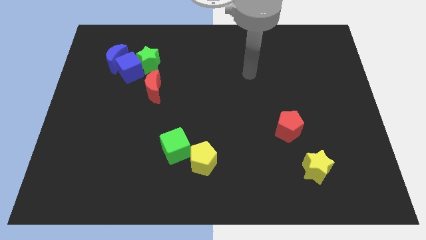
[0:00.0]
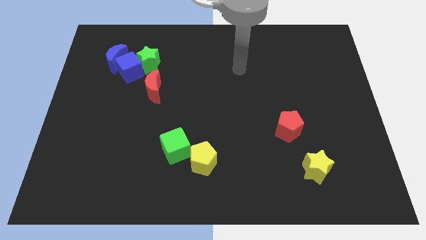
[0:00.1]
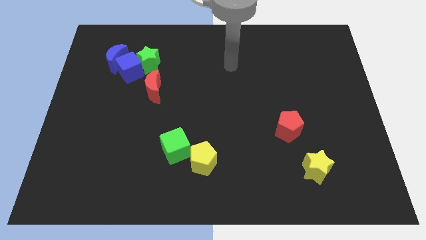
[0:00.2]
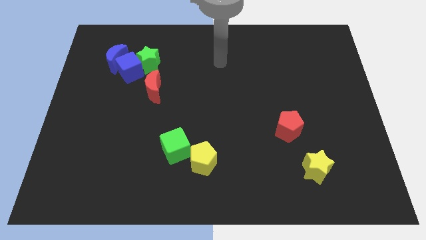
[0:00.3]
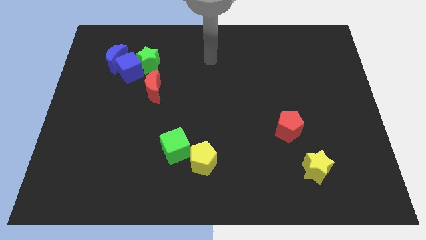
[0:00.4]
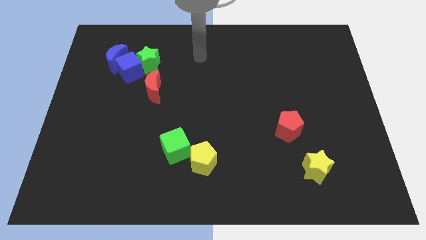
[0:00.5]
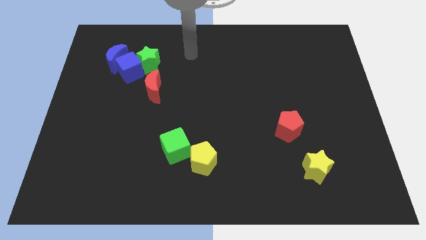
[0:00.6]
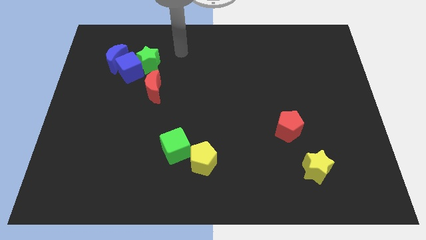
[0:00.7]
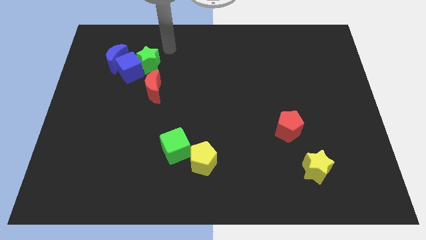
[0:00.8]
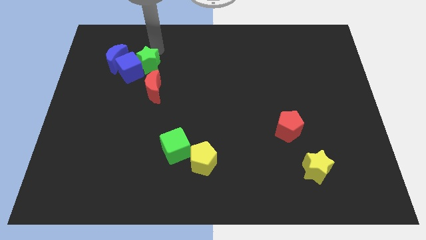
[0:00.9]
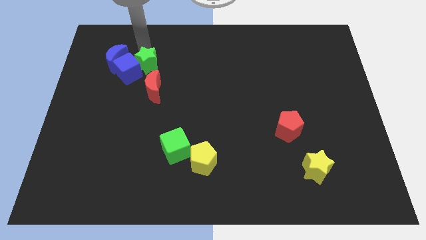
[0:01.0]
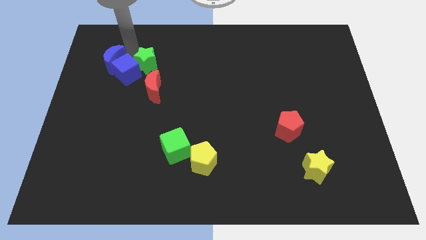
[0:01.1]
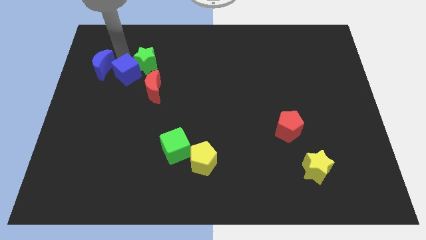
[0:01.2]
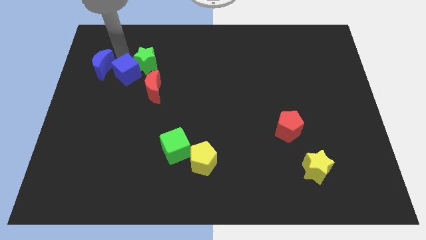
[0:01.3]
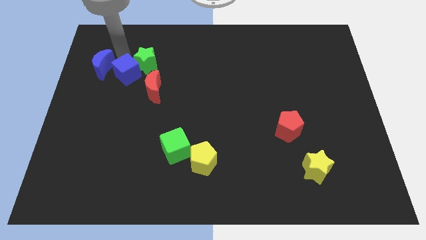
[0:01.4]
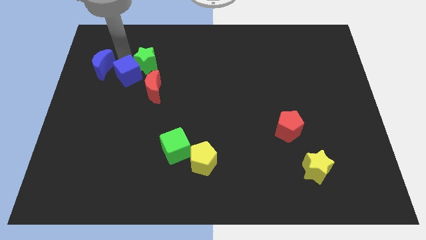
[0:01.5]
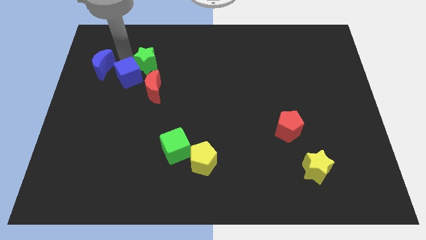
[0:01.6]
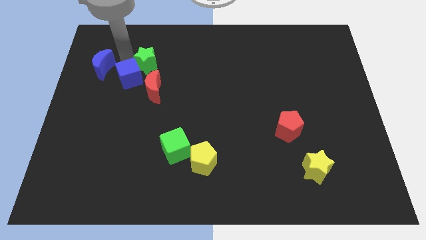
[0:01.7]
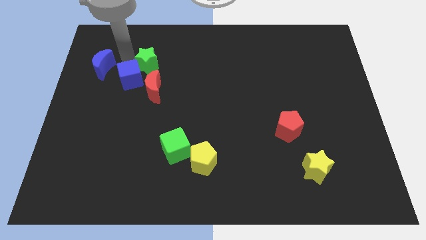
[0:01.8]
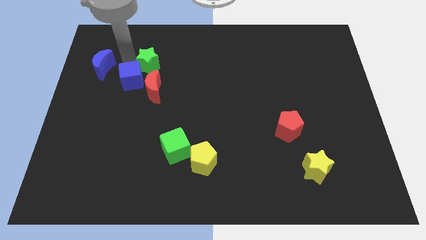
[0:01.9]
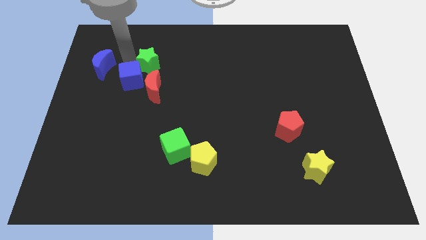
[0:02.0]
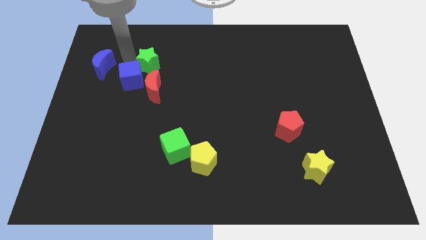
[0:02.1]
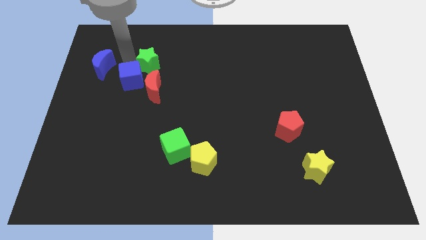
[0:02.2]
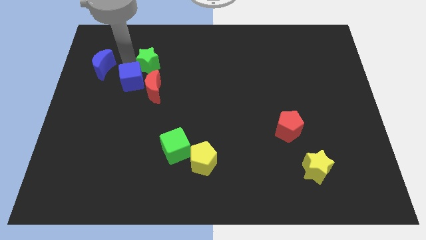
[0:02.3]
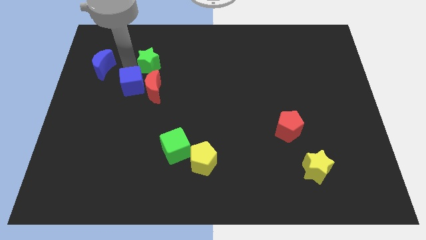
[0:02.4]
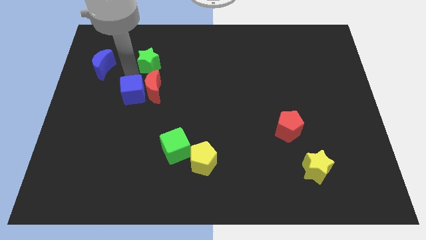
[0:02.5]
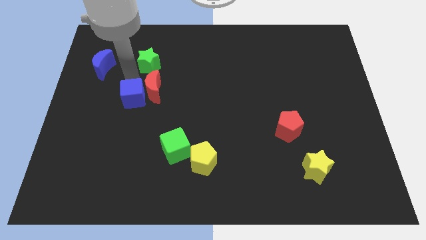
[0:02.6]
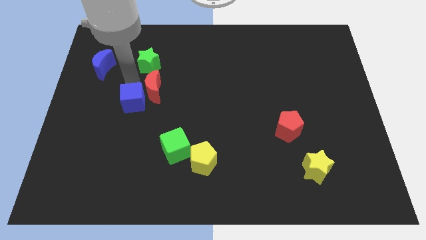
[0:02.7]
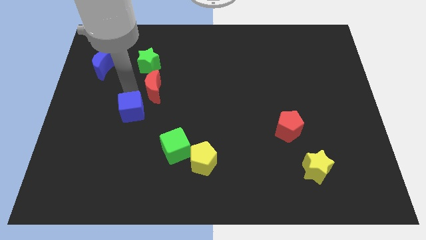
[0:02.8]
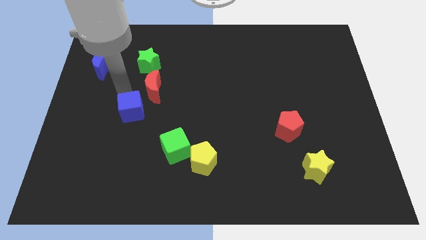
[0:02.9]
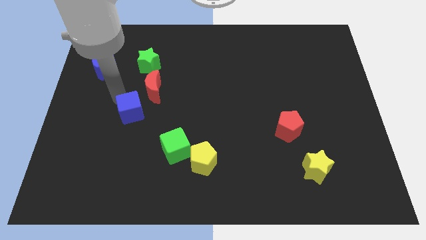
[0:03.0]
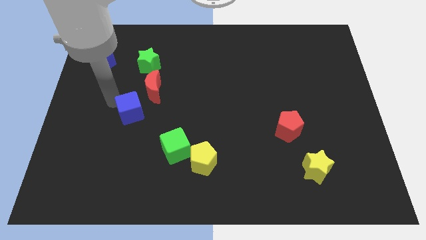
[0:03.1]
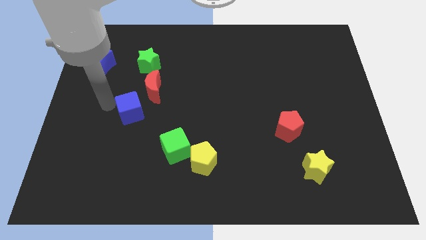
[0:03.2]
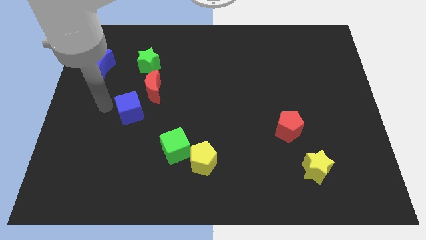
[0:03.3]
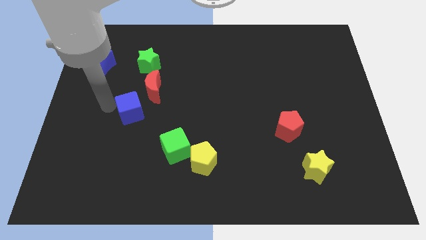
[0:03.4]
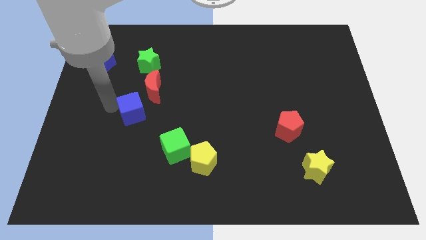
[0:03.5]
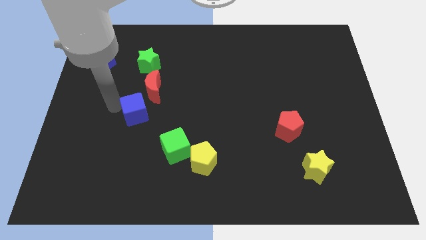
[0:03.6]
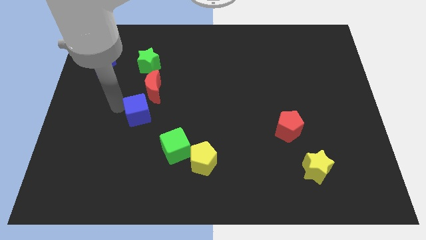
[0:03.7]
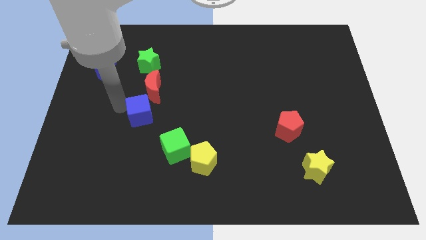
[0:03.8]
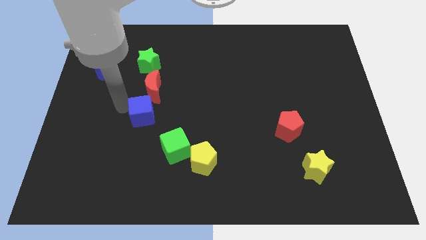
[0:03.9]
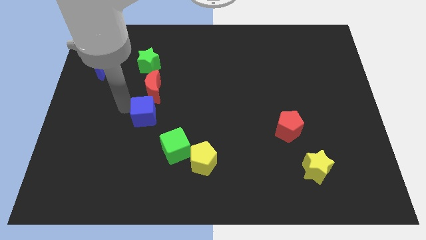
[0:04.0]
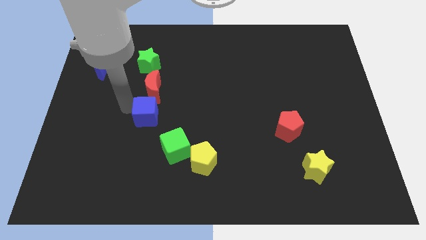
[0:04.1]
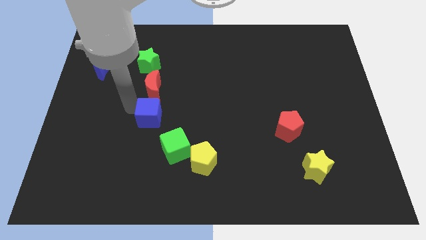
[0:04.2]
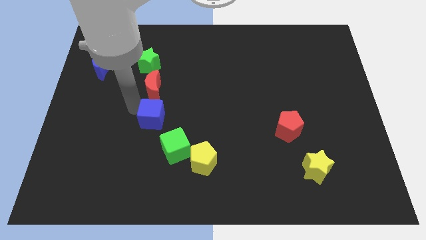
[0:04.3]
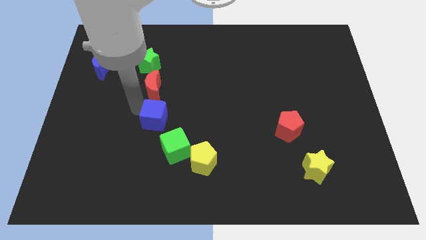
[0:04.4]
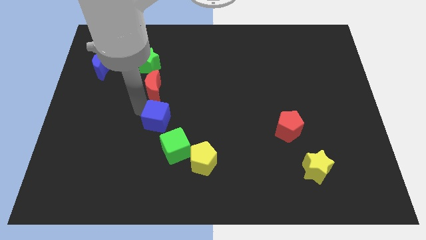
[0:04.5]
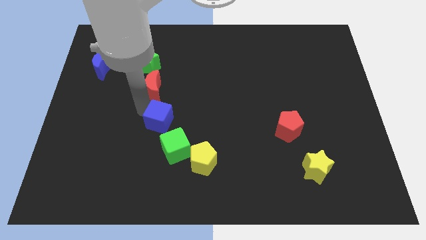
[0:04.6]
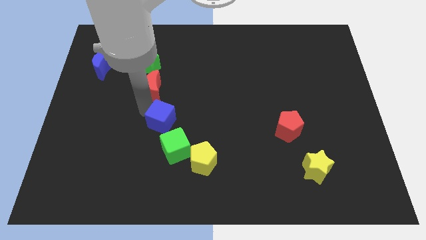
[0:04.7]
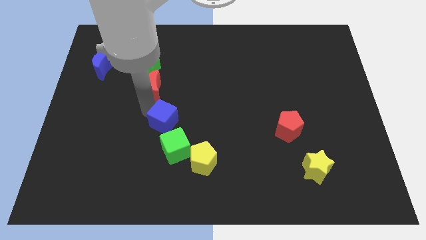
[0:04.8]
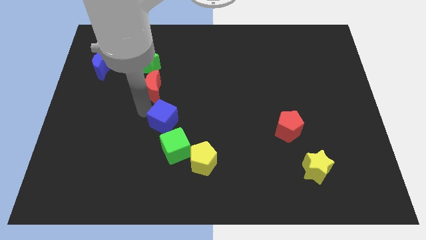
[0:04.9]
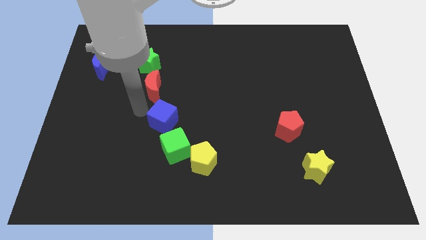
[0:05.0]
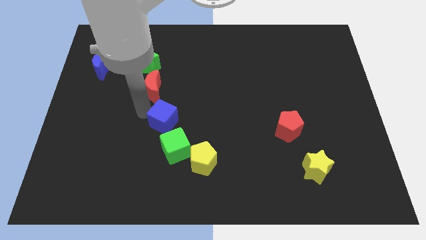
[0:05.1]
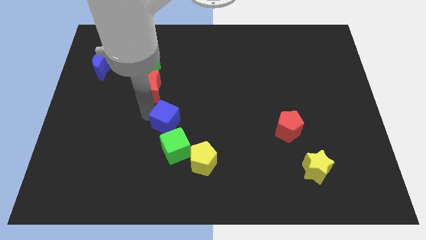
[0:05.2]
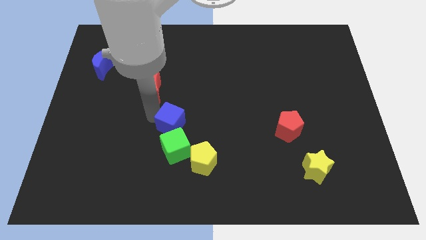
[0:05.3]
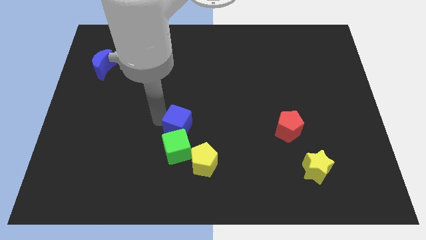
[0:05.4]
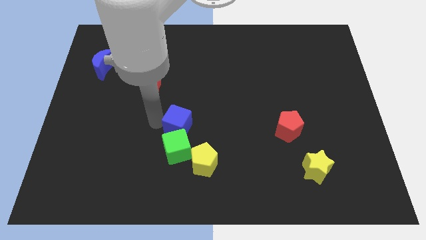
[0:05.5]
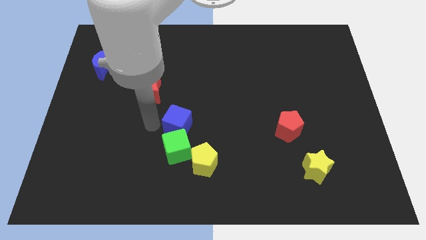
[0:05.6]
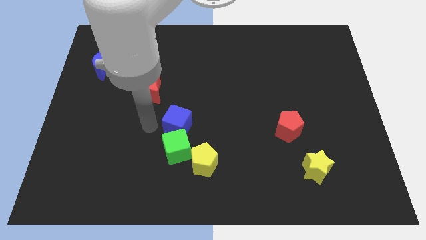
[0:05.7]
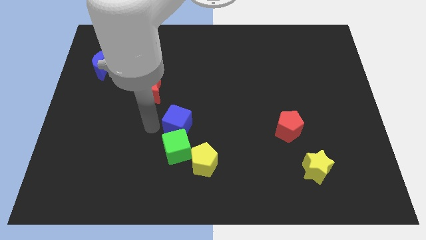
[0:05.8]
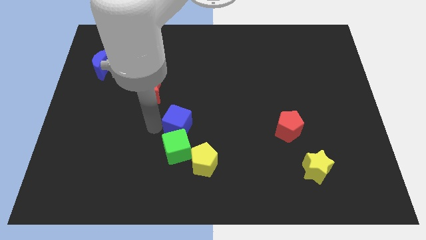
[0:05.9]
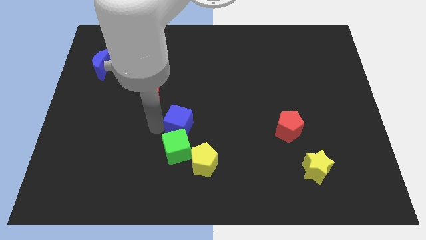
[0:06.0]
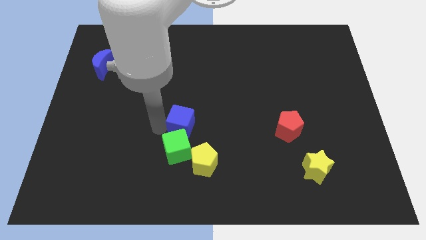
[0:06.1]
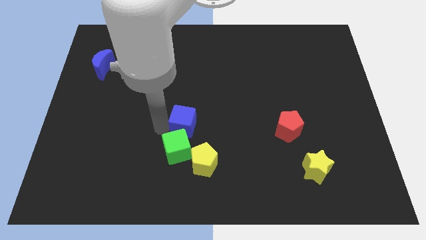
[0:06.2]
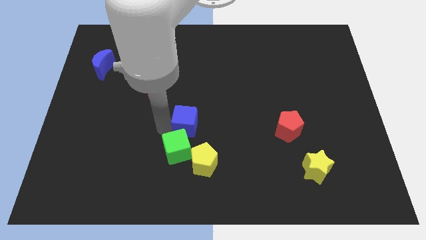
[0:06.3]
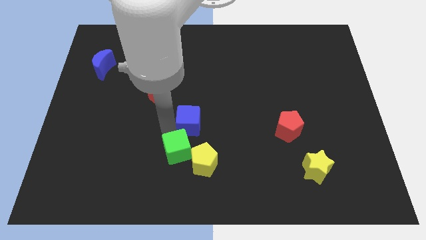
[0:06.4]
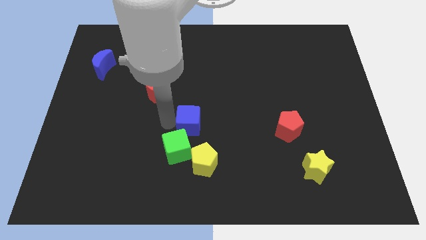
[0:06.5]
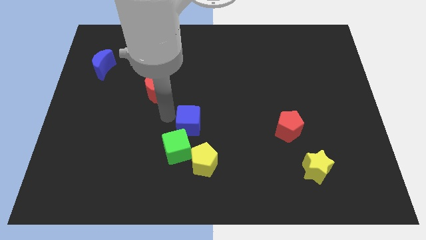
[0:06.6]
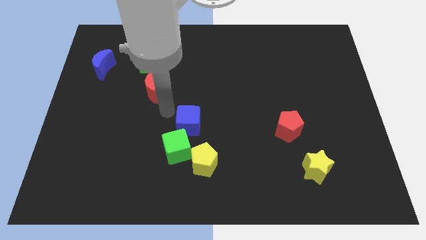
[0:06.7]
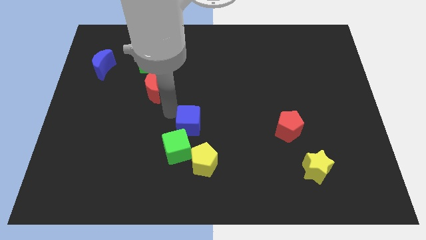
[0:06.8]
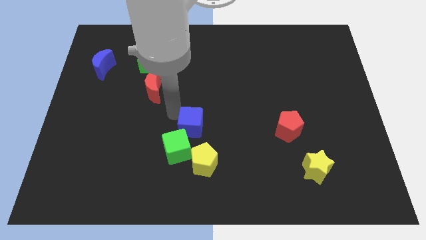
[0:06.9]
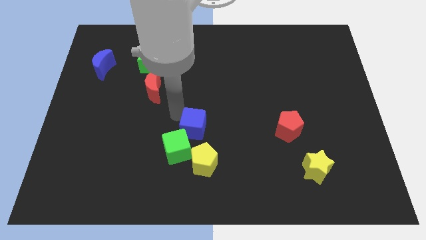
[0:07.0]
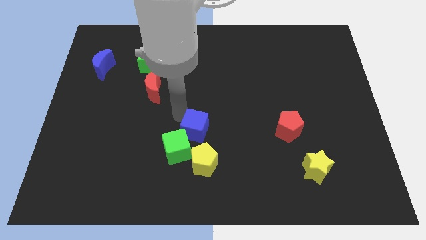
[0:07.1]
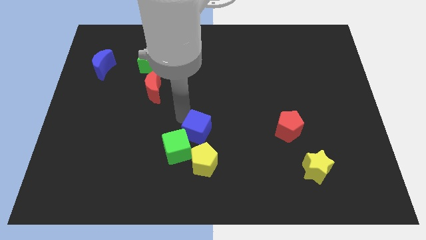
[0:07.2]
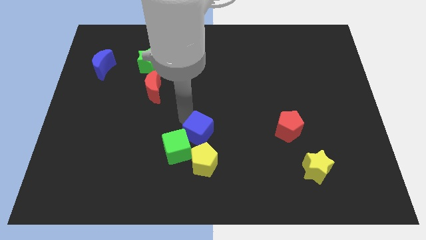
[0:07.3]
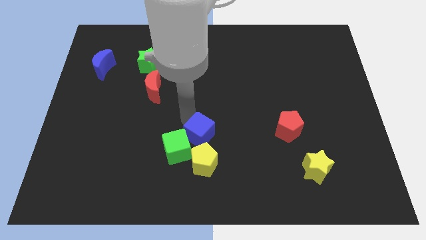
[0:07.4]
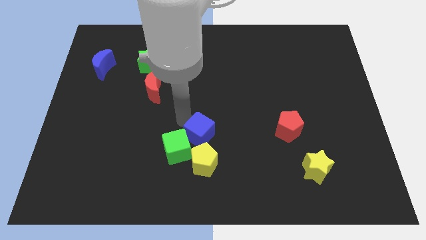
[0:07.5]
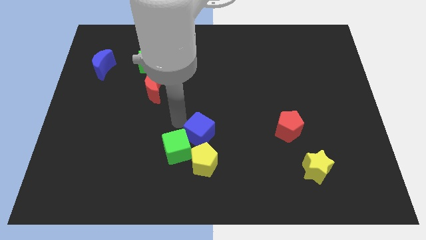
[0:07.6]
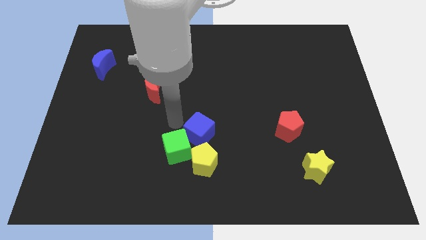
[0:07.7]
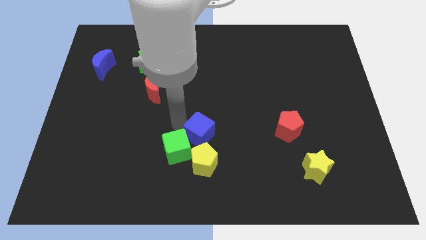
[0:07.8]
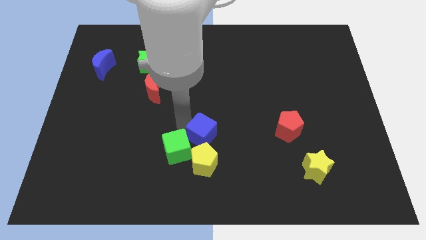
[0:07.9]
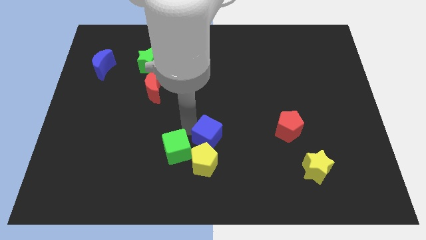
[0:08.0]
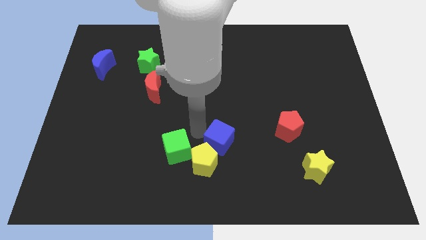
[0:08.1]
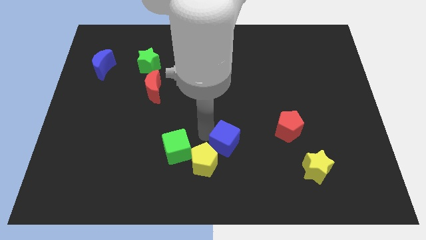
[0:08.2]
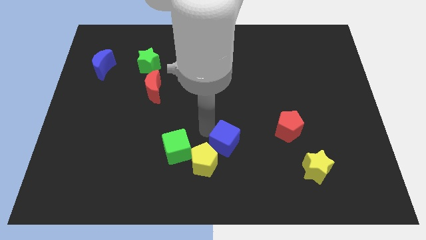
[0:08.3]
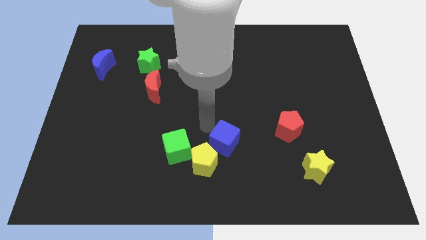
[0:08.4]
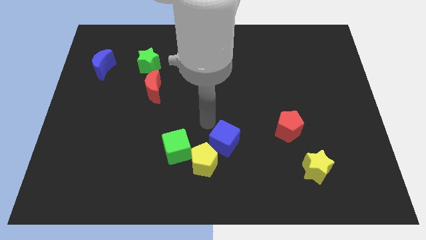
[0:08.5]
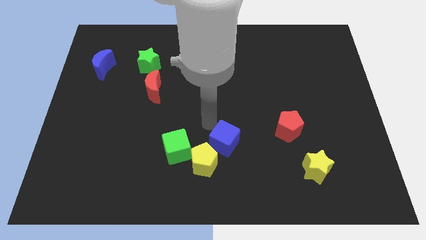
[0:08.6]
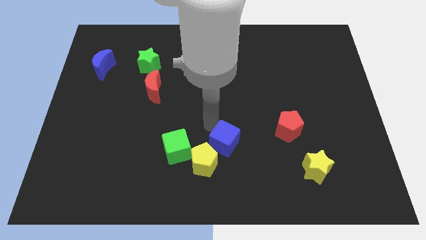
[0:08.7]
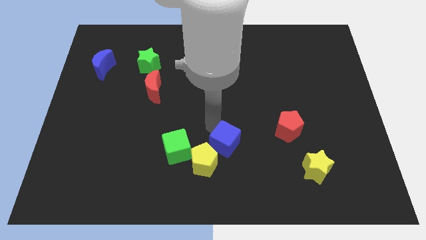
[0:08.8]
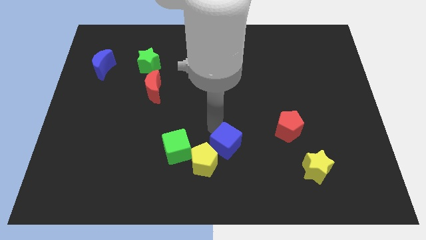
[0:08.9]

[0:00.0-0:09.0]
slide the blue cube to the right of the yellow pentagon
